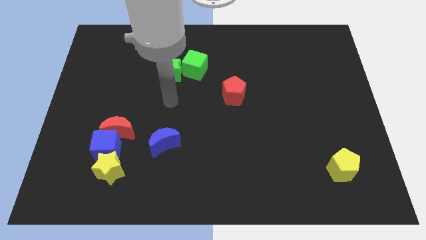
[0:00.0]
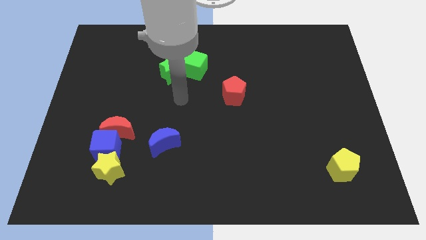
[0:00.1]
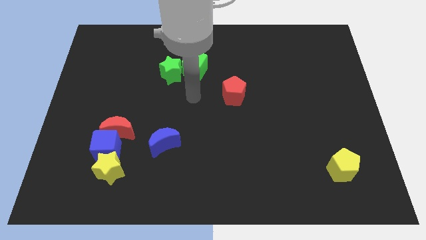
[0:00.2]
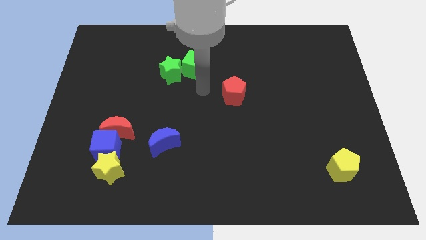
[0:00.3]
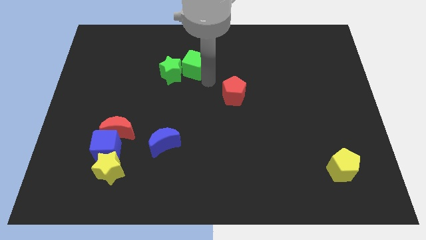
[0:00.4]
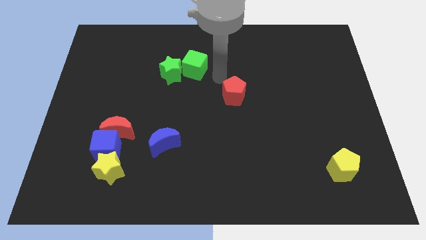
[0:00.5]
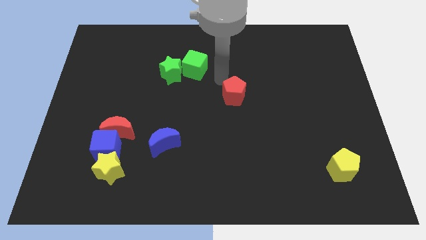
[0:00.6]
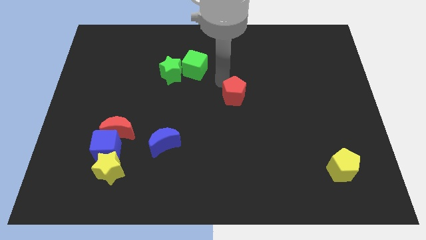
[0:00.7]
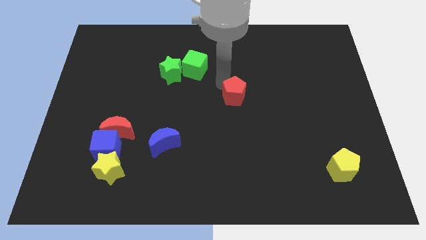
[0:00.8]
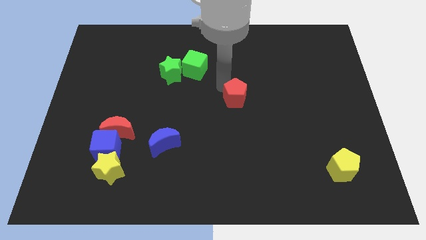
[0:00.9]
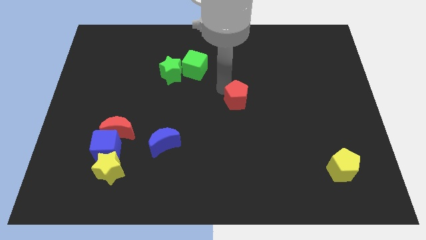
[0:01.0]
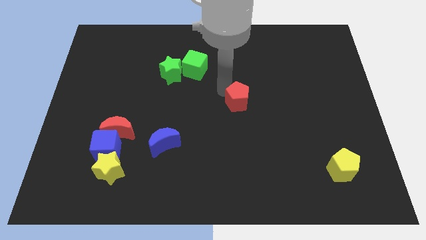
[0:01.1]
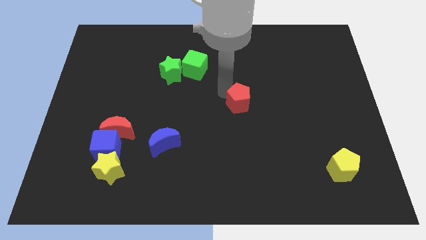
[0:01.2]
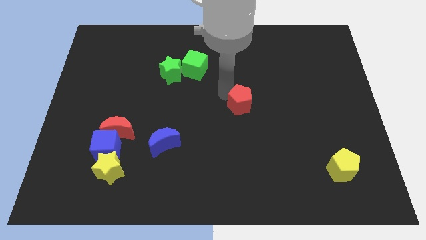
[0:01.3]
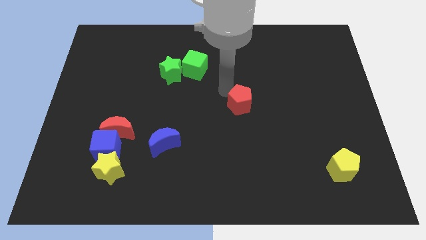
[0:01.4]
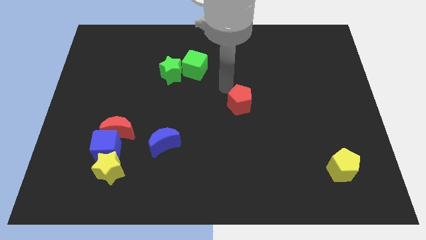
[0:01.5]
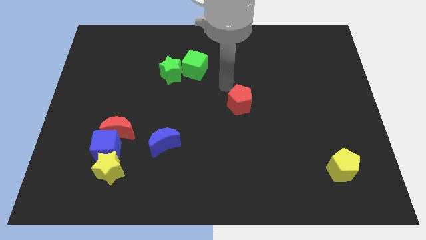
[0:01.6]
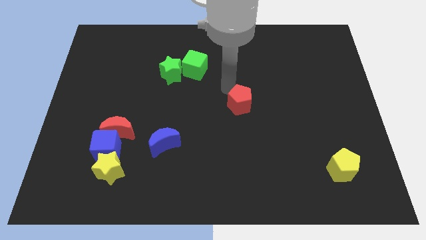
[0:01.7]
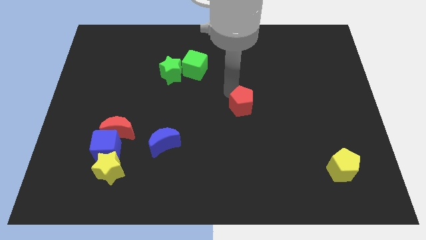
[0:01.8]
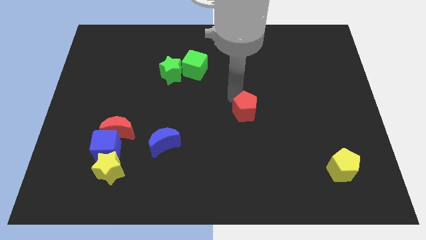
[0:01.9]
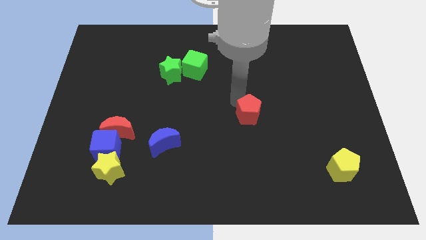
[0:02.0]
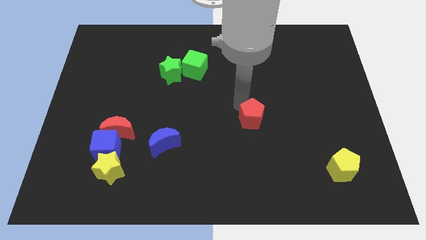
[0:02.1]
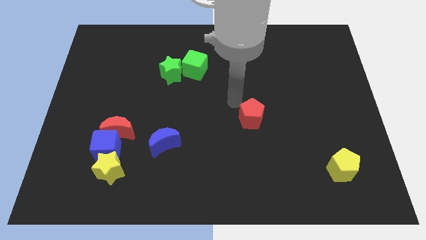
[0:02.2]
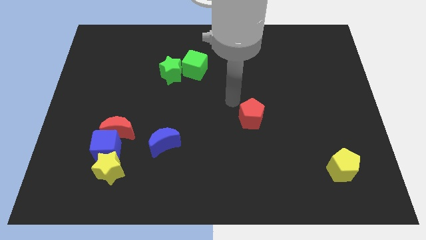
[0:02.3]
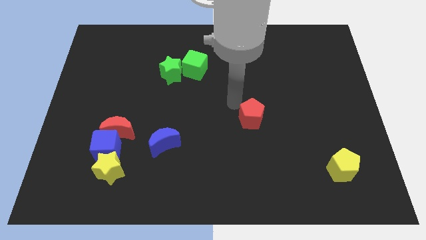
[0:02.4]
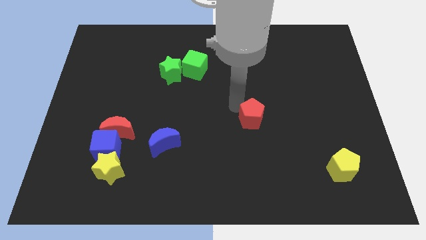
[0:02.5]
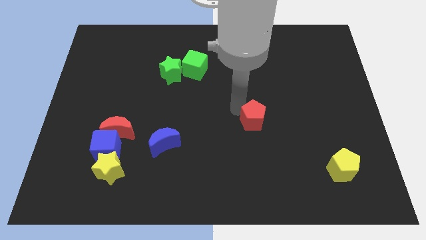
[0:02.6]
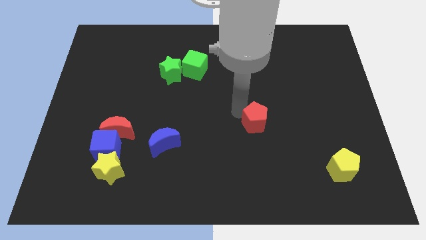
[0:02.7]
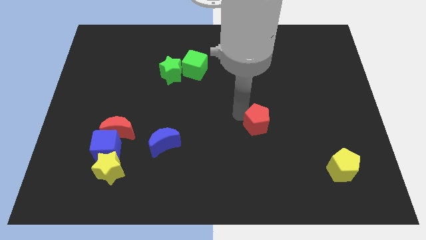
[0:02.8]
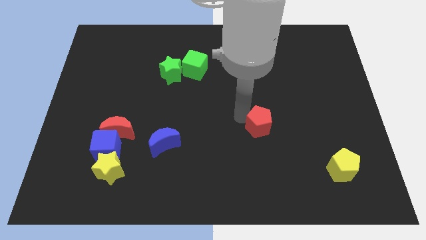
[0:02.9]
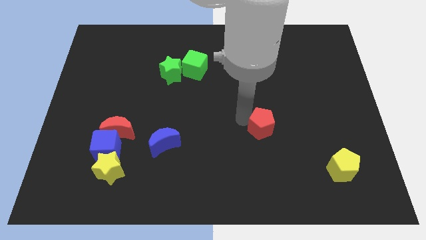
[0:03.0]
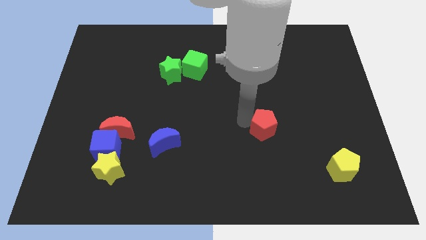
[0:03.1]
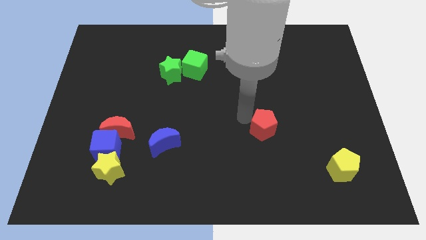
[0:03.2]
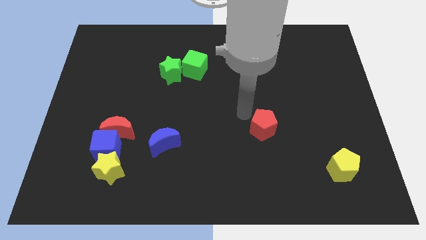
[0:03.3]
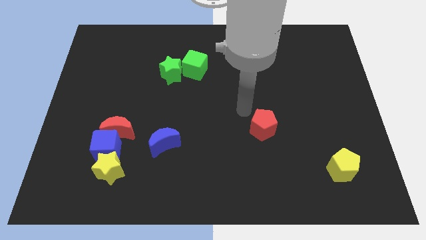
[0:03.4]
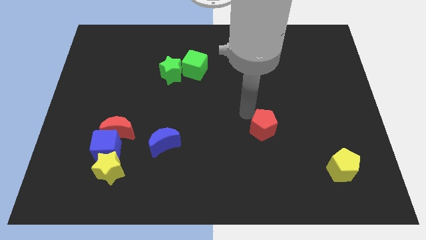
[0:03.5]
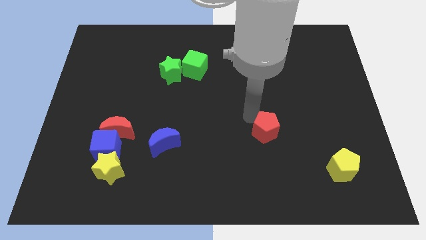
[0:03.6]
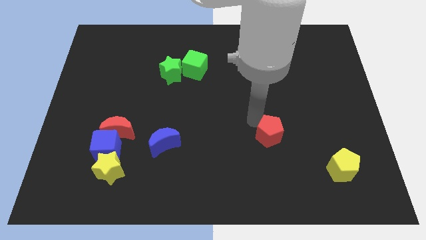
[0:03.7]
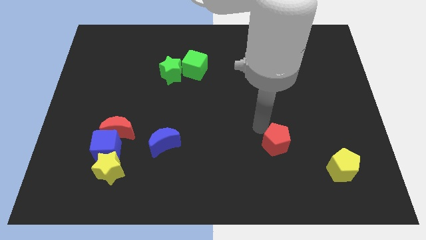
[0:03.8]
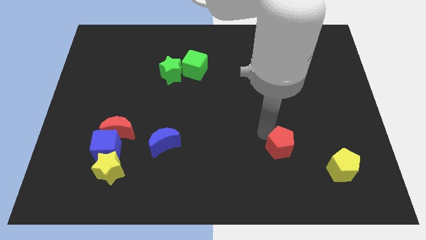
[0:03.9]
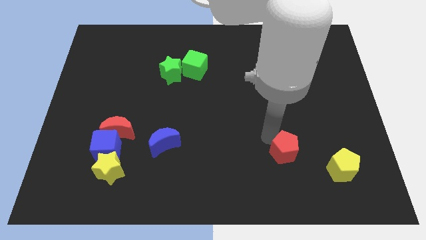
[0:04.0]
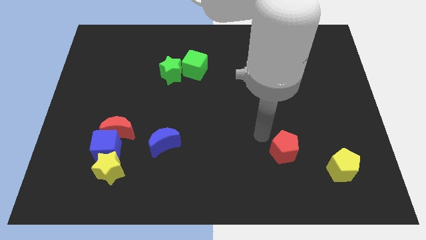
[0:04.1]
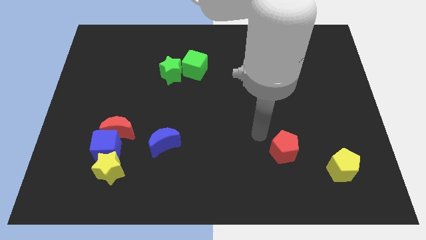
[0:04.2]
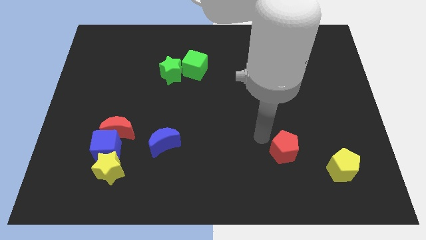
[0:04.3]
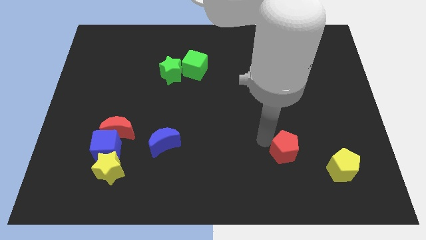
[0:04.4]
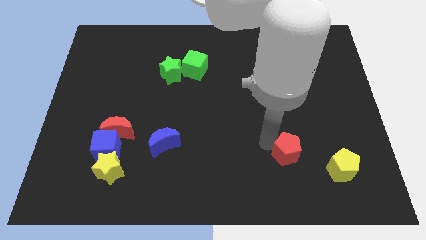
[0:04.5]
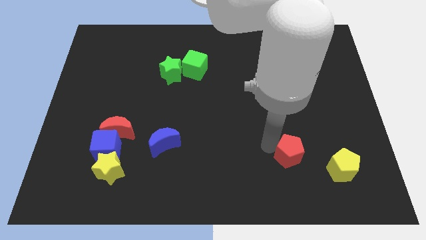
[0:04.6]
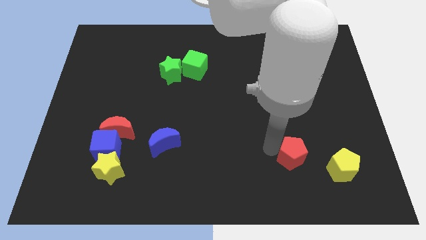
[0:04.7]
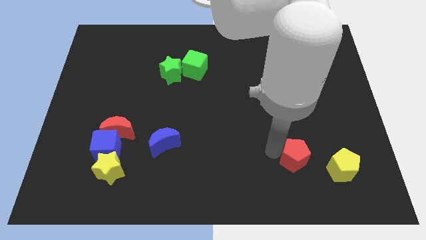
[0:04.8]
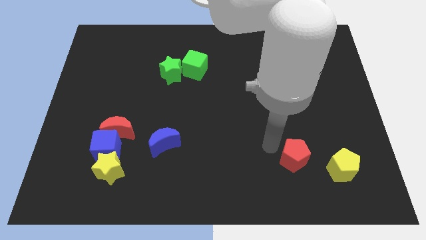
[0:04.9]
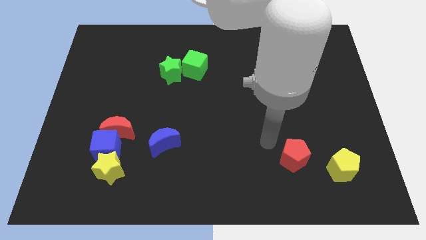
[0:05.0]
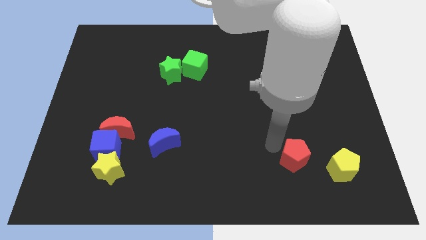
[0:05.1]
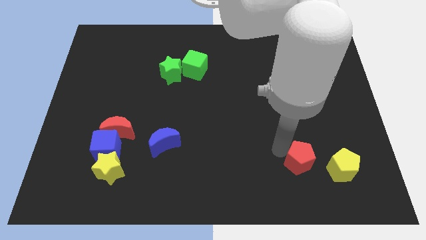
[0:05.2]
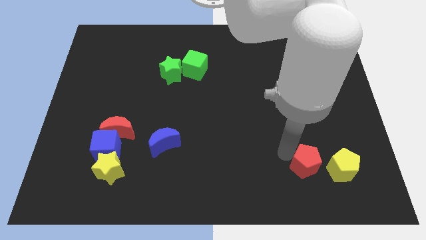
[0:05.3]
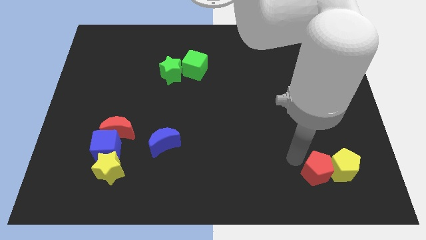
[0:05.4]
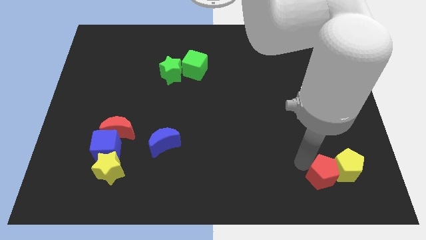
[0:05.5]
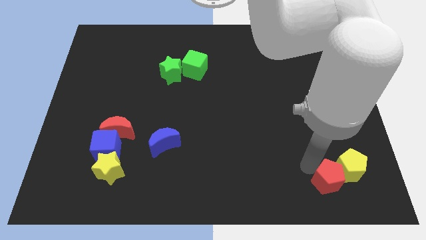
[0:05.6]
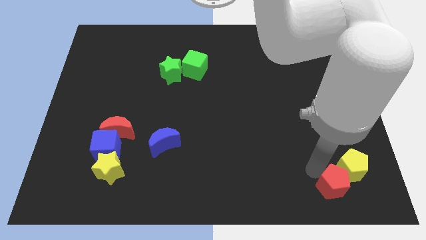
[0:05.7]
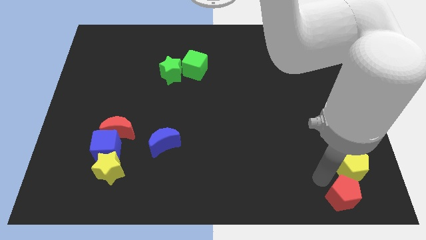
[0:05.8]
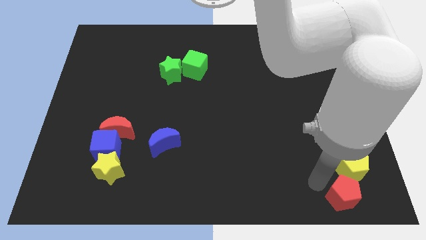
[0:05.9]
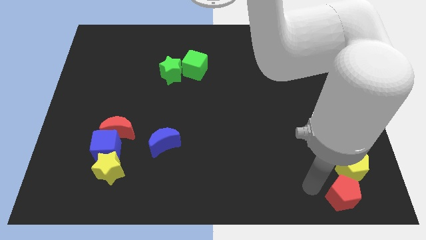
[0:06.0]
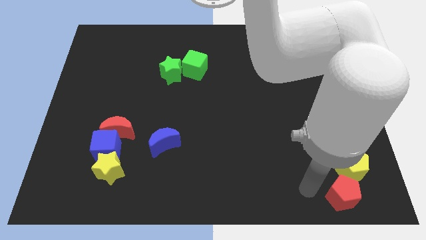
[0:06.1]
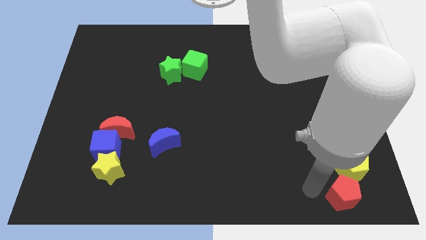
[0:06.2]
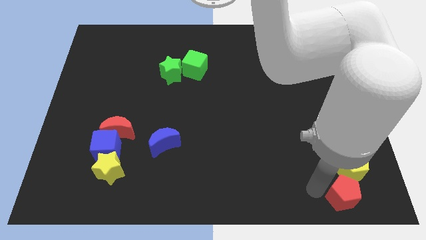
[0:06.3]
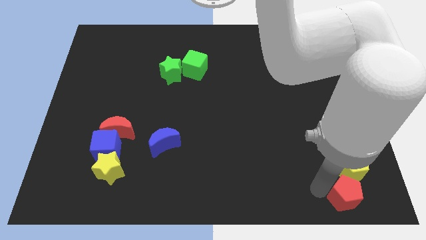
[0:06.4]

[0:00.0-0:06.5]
slide the red pentagon to the bottom right

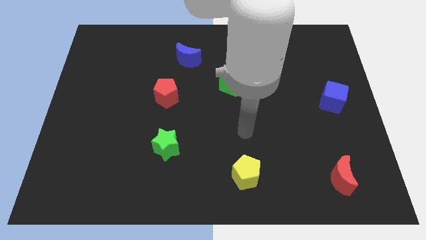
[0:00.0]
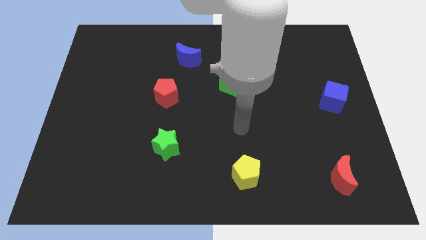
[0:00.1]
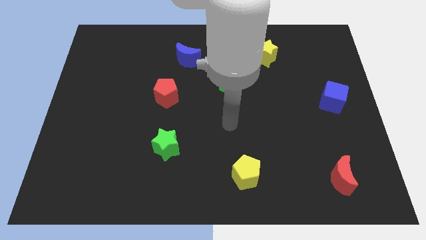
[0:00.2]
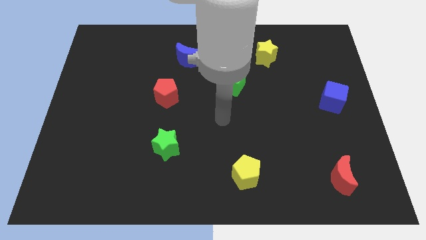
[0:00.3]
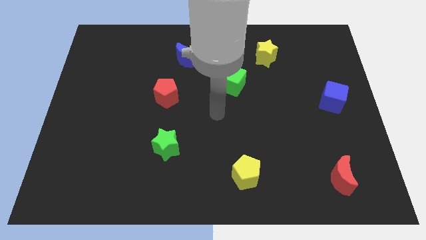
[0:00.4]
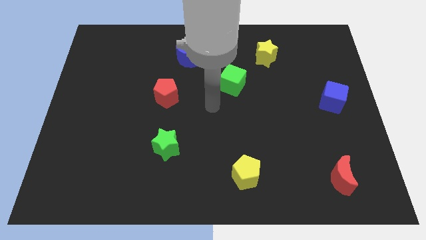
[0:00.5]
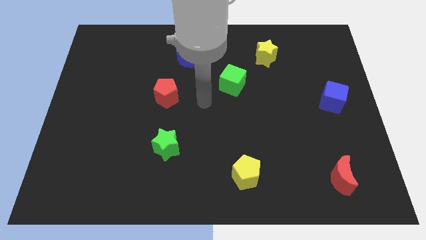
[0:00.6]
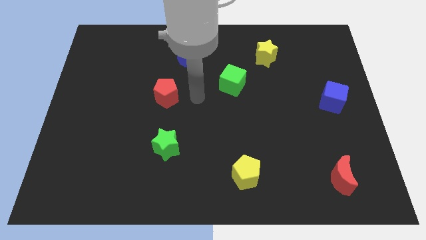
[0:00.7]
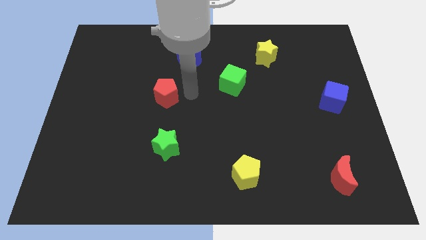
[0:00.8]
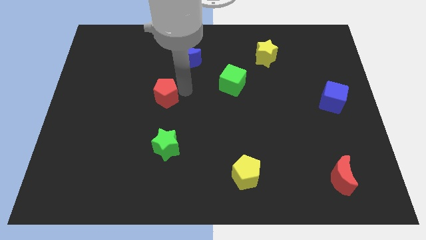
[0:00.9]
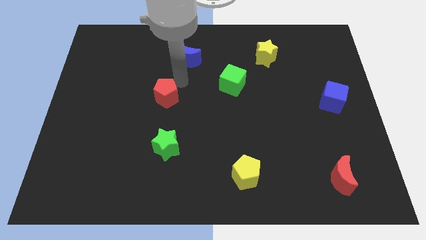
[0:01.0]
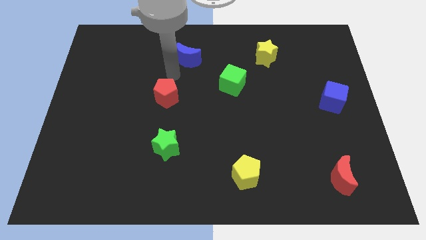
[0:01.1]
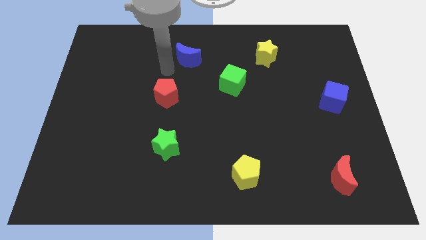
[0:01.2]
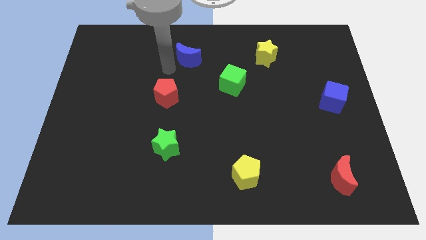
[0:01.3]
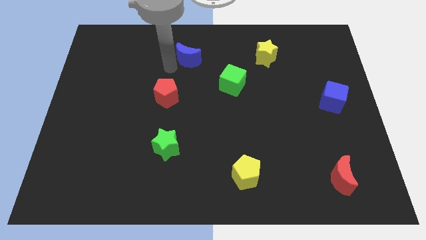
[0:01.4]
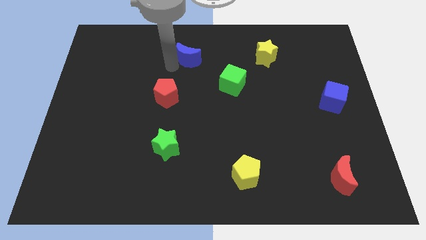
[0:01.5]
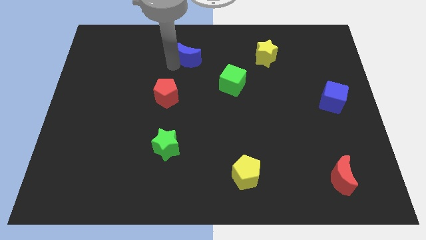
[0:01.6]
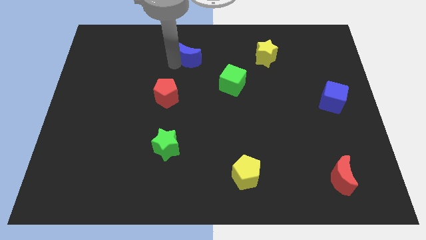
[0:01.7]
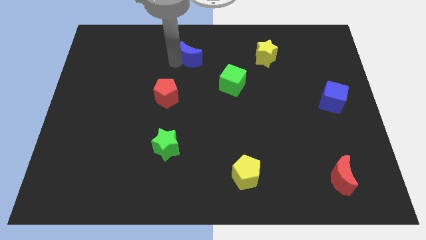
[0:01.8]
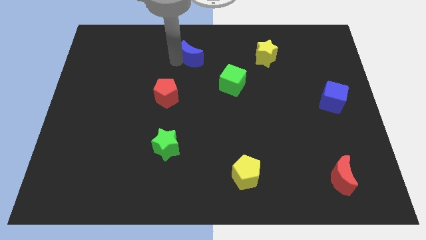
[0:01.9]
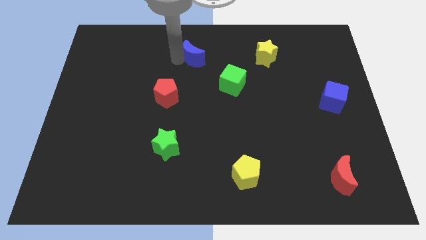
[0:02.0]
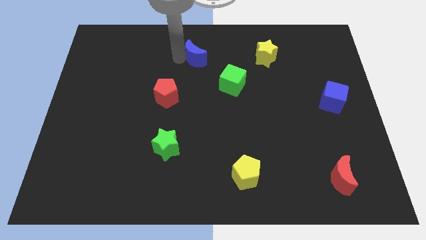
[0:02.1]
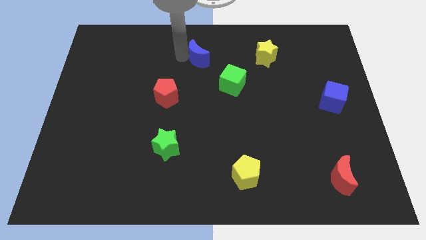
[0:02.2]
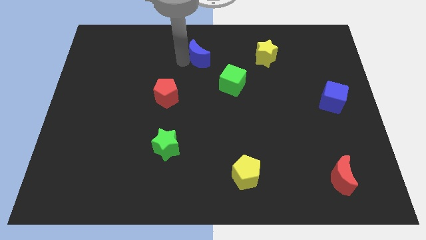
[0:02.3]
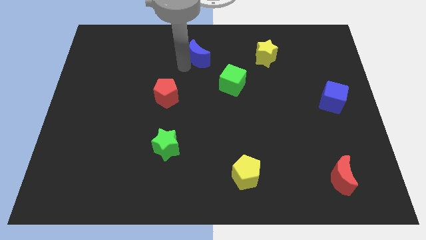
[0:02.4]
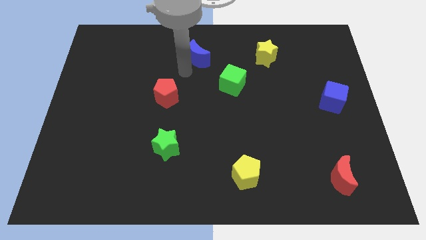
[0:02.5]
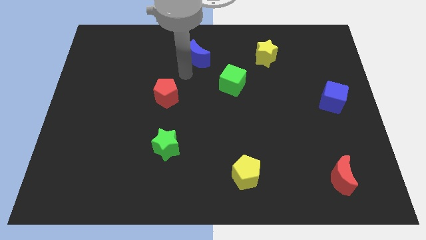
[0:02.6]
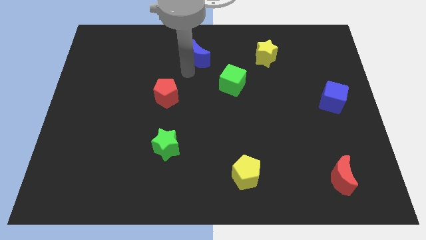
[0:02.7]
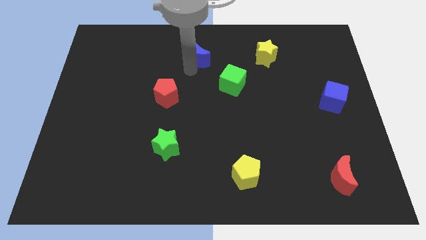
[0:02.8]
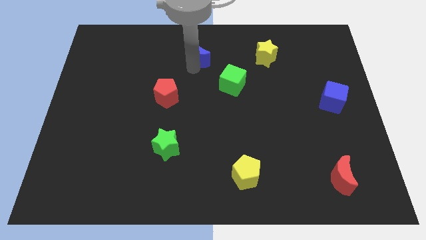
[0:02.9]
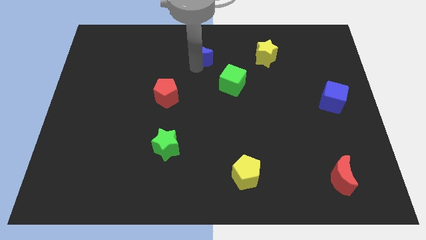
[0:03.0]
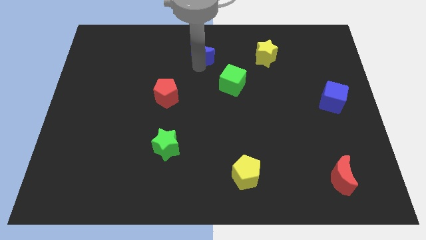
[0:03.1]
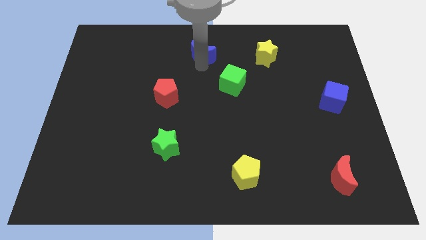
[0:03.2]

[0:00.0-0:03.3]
put the blue moon to the top
